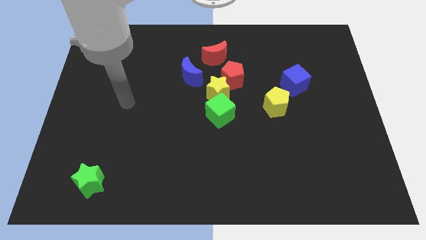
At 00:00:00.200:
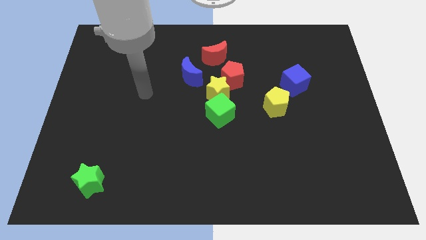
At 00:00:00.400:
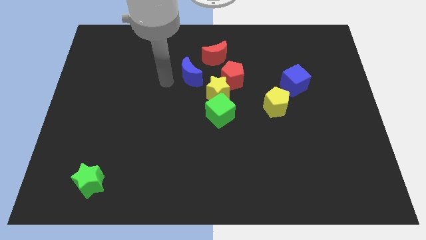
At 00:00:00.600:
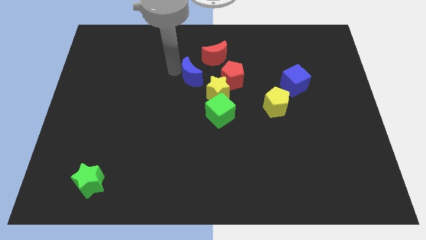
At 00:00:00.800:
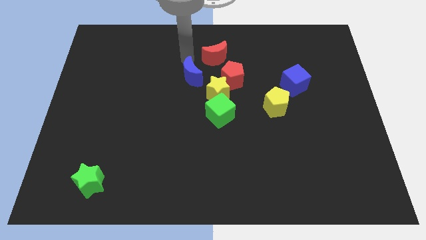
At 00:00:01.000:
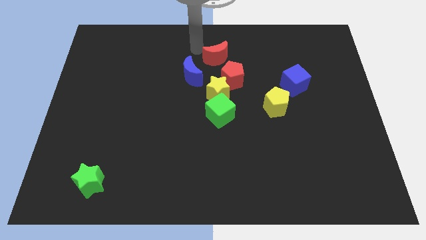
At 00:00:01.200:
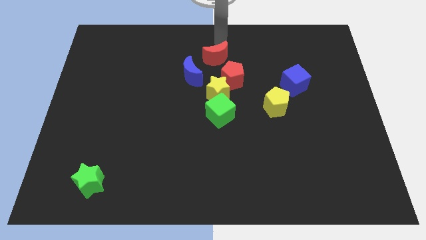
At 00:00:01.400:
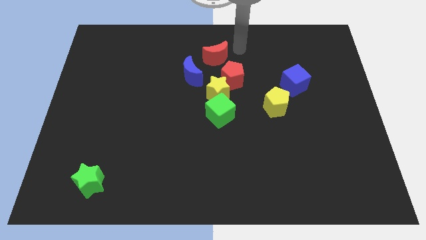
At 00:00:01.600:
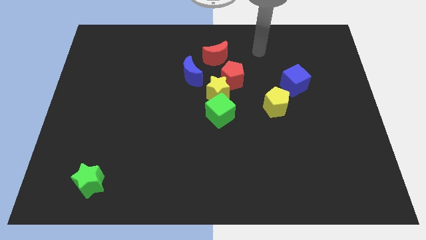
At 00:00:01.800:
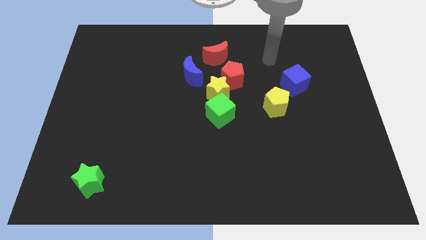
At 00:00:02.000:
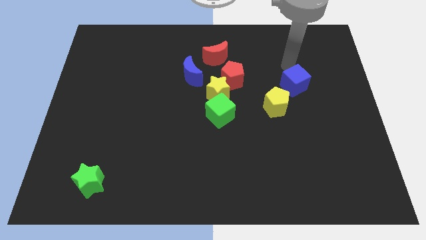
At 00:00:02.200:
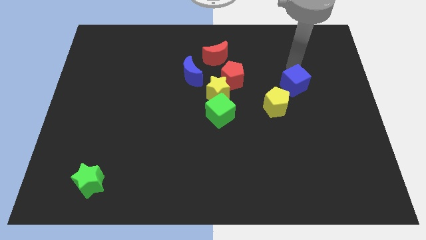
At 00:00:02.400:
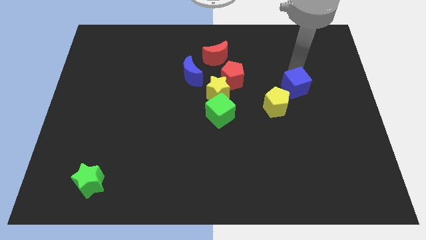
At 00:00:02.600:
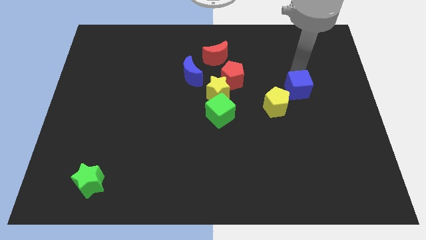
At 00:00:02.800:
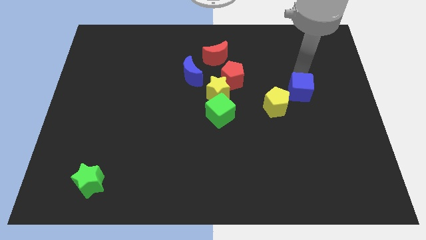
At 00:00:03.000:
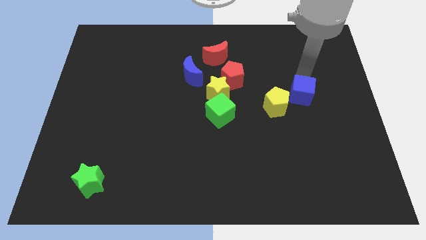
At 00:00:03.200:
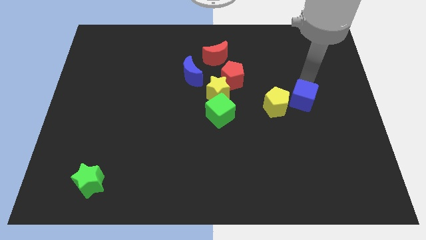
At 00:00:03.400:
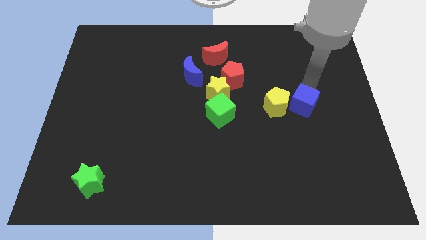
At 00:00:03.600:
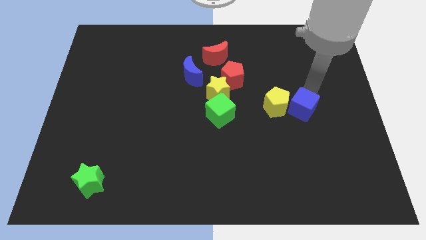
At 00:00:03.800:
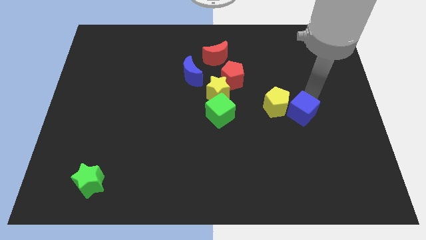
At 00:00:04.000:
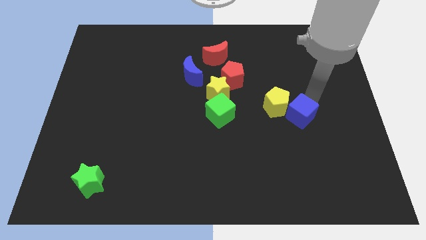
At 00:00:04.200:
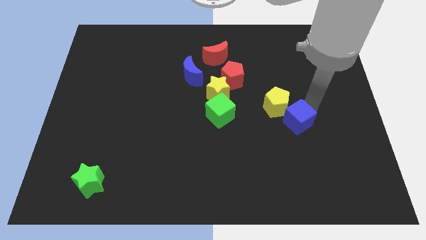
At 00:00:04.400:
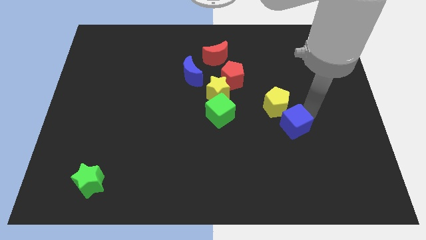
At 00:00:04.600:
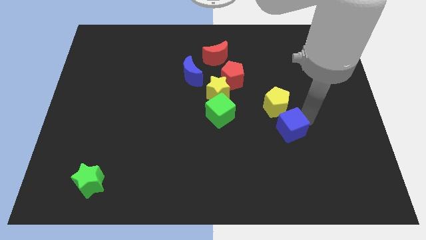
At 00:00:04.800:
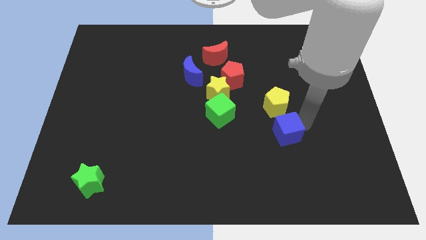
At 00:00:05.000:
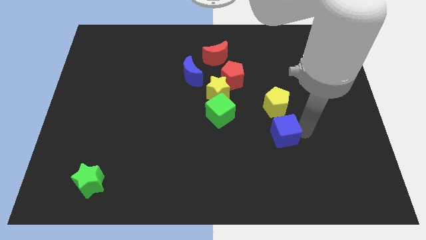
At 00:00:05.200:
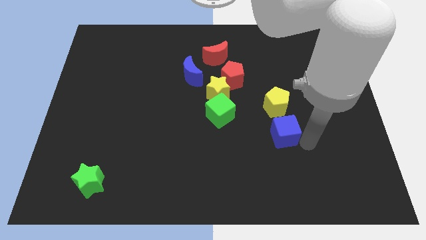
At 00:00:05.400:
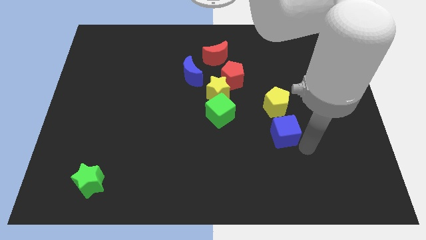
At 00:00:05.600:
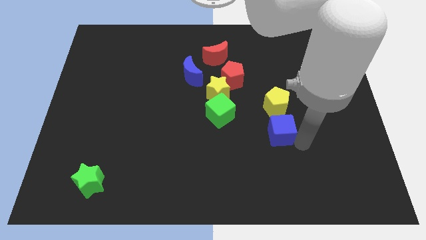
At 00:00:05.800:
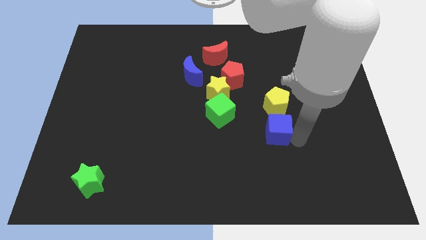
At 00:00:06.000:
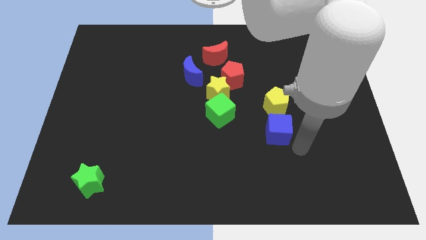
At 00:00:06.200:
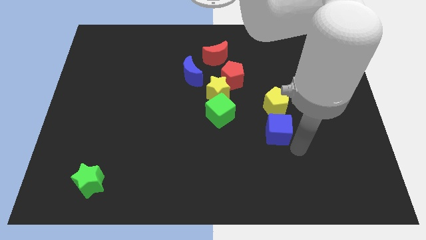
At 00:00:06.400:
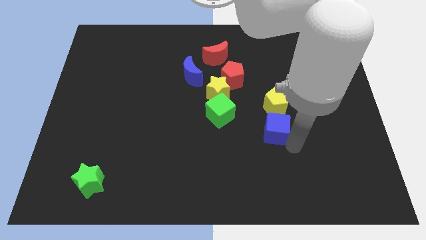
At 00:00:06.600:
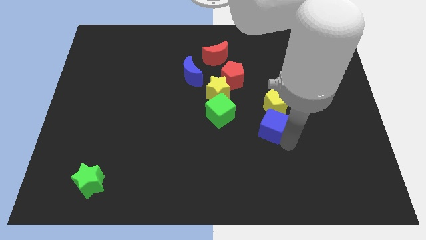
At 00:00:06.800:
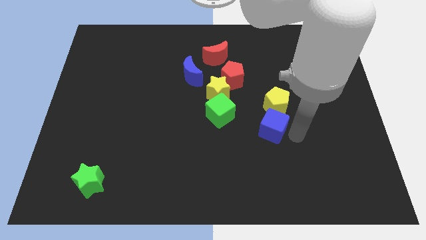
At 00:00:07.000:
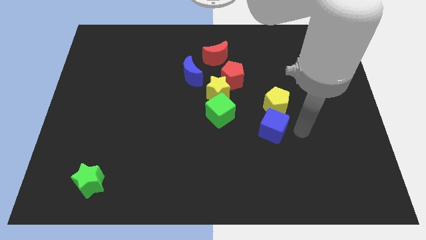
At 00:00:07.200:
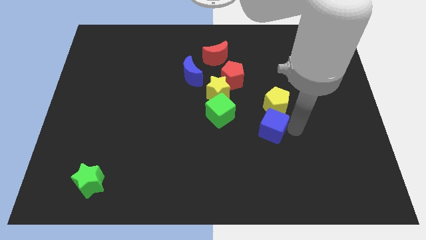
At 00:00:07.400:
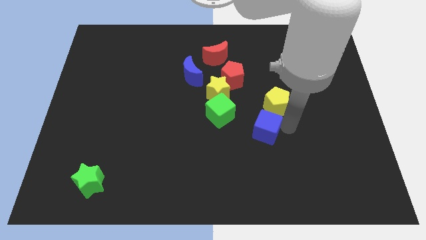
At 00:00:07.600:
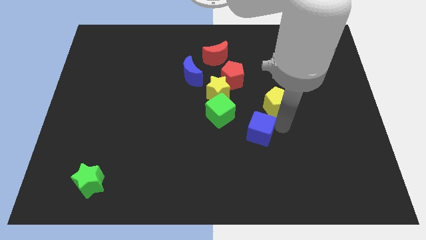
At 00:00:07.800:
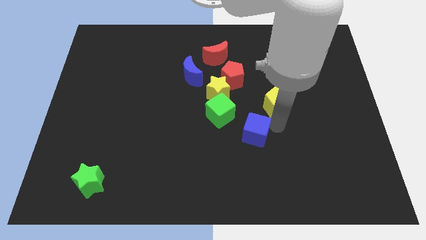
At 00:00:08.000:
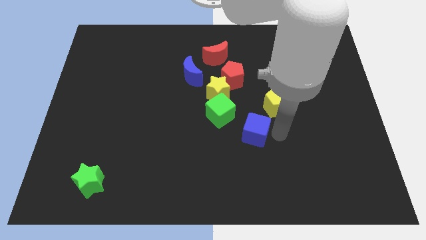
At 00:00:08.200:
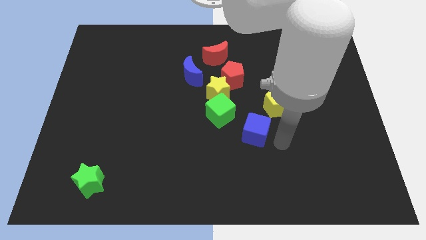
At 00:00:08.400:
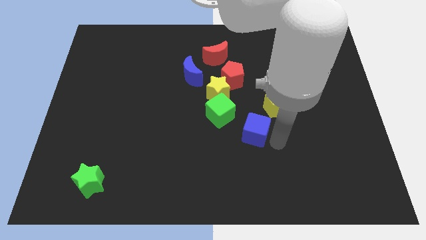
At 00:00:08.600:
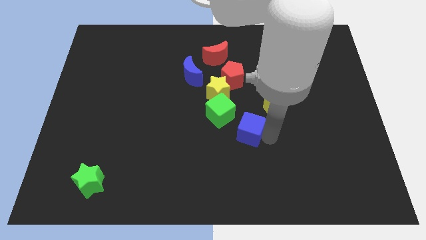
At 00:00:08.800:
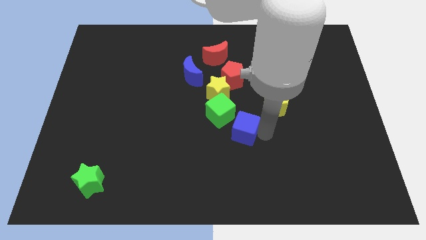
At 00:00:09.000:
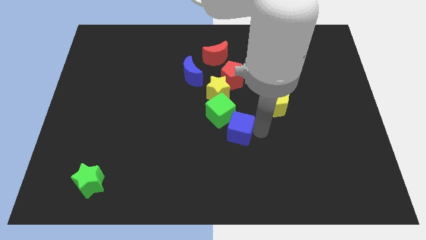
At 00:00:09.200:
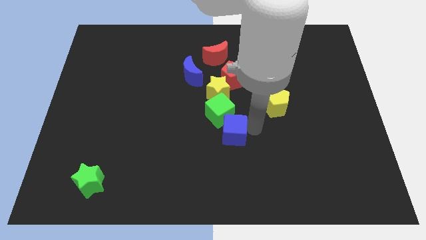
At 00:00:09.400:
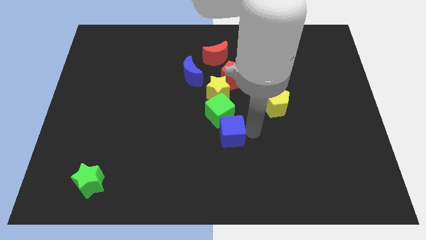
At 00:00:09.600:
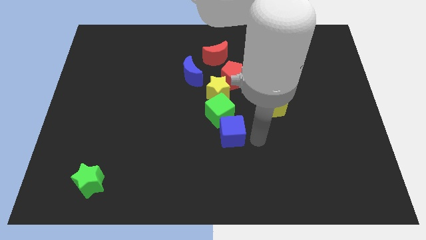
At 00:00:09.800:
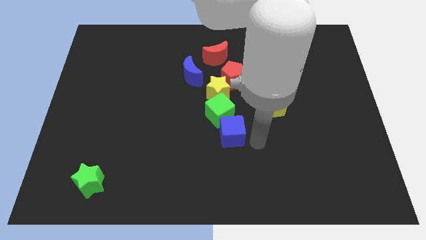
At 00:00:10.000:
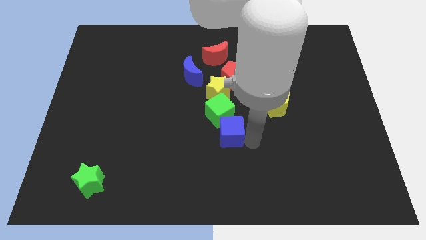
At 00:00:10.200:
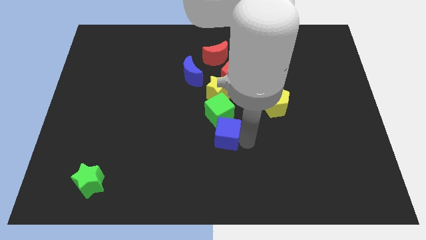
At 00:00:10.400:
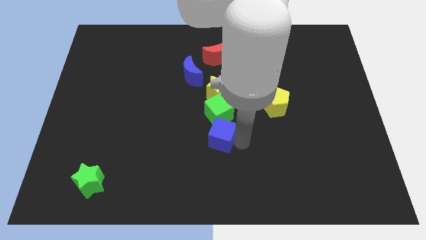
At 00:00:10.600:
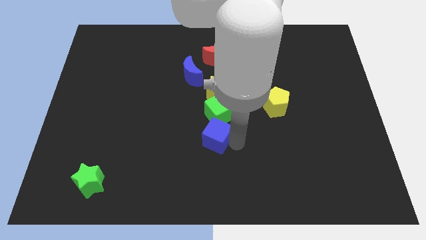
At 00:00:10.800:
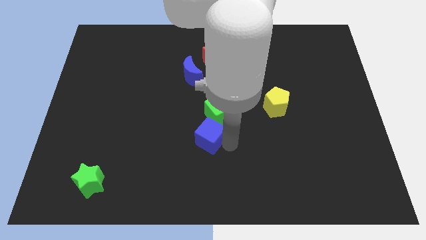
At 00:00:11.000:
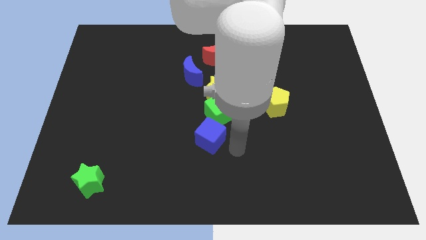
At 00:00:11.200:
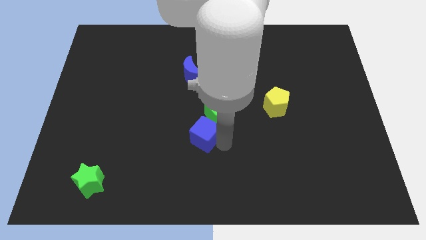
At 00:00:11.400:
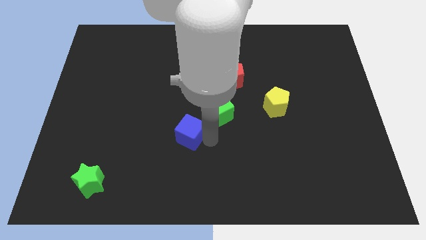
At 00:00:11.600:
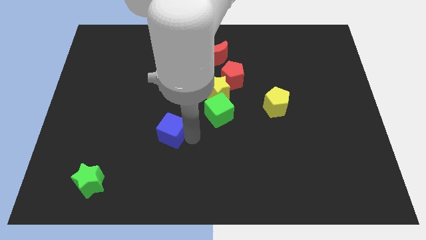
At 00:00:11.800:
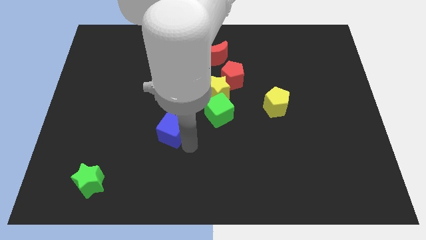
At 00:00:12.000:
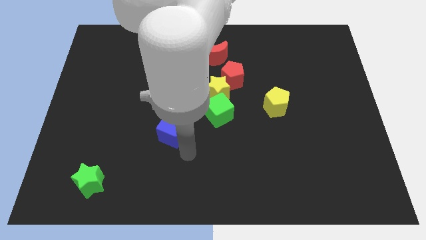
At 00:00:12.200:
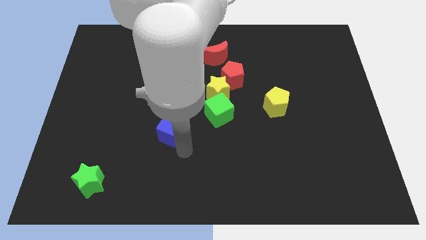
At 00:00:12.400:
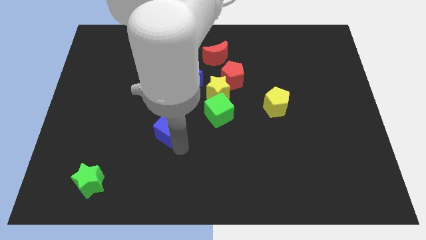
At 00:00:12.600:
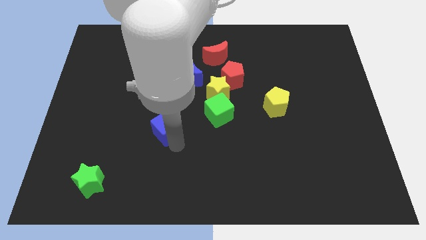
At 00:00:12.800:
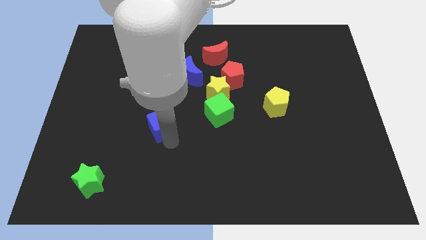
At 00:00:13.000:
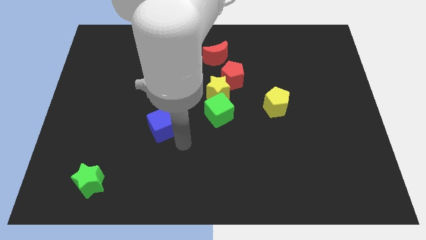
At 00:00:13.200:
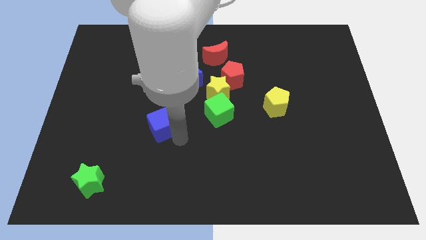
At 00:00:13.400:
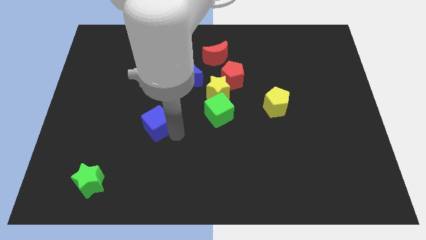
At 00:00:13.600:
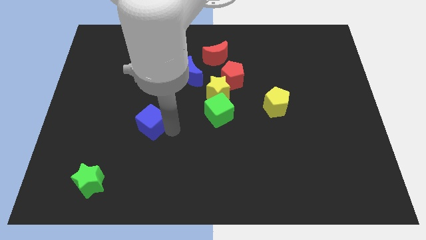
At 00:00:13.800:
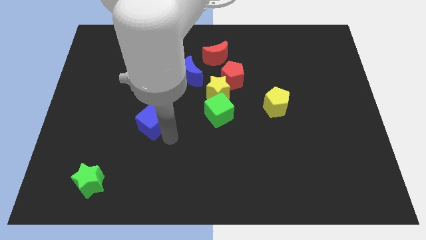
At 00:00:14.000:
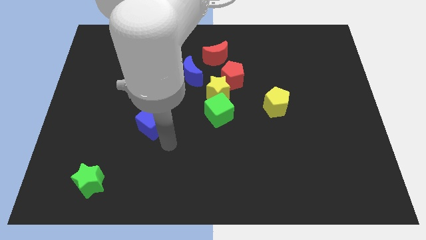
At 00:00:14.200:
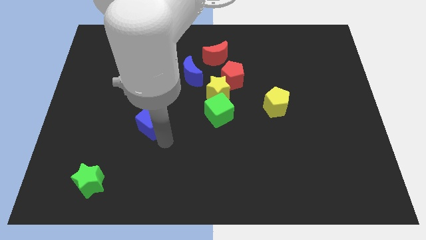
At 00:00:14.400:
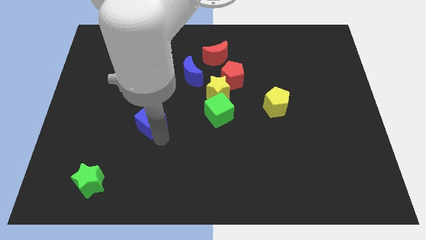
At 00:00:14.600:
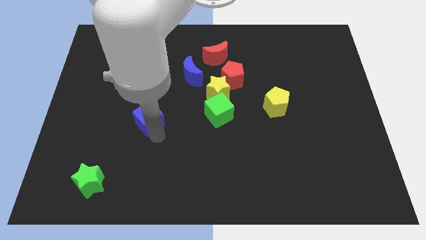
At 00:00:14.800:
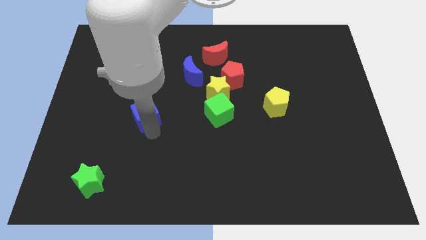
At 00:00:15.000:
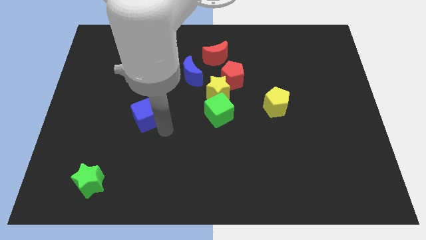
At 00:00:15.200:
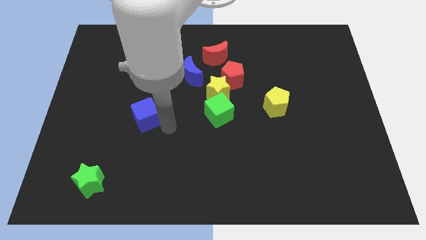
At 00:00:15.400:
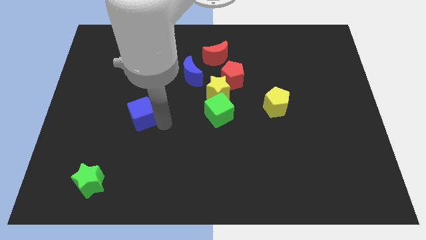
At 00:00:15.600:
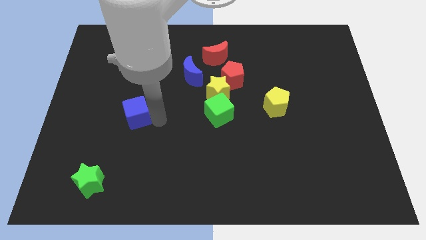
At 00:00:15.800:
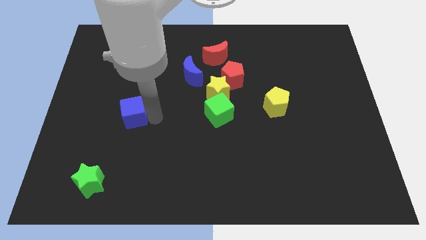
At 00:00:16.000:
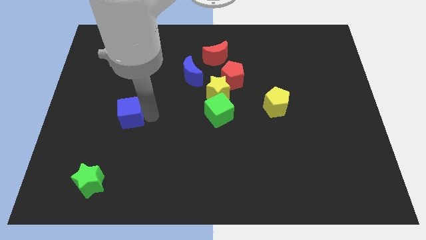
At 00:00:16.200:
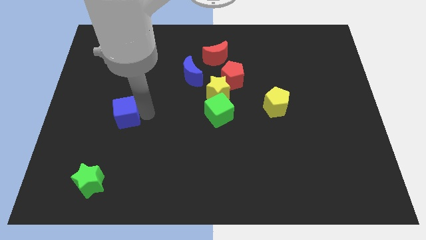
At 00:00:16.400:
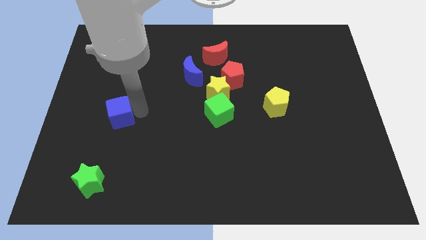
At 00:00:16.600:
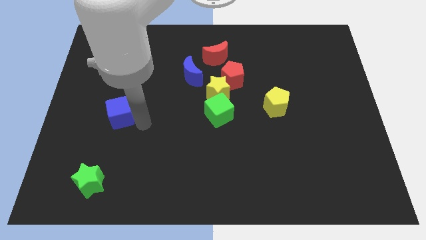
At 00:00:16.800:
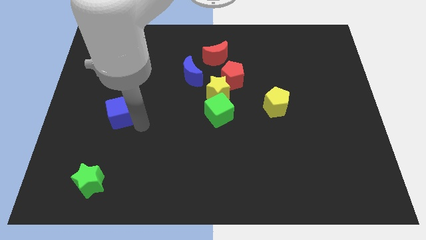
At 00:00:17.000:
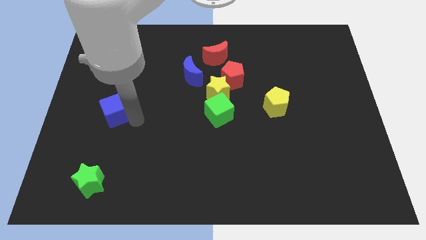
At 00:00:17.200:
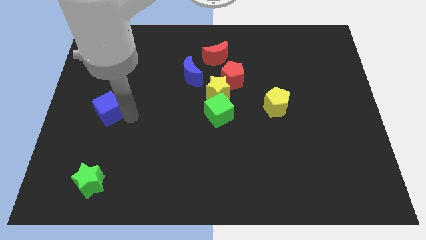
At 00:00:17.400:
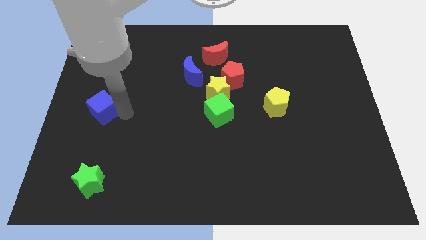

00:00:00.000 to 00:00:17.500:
put the blue cube to the left side of the board
